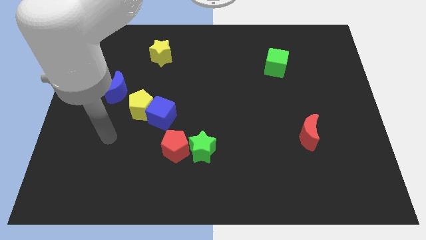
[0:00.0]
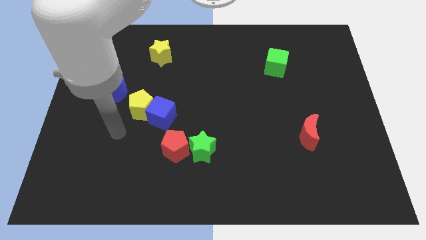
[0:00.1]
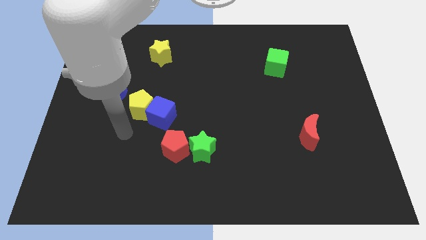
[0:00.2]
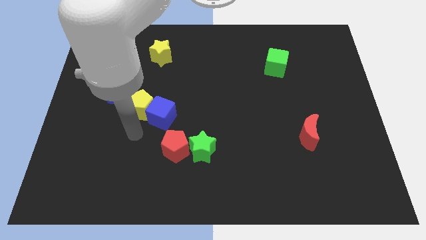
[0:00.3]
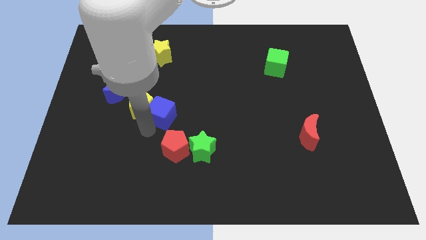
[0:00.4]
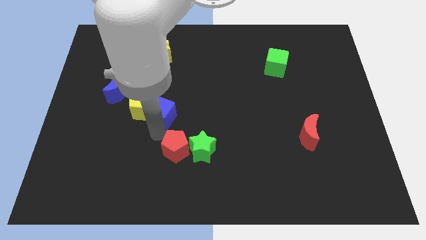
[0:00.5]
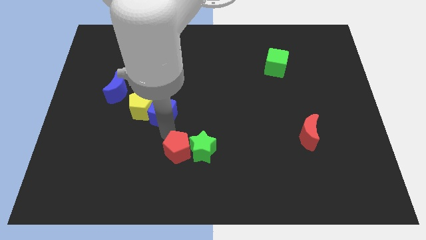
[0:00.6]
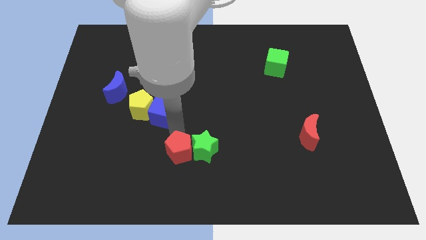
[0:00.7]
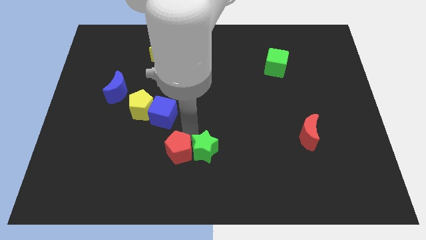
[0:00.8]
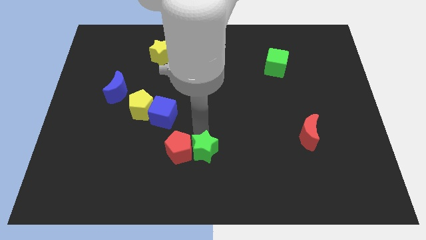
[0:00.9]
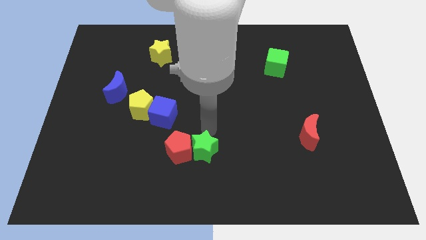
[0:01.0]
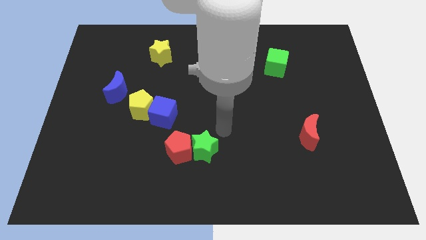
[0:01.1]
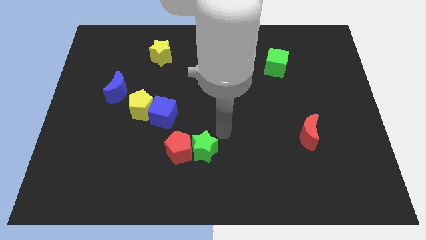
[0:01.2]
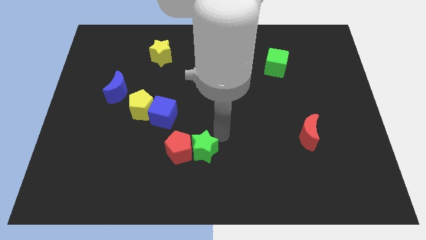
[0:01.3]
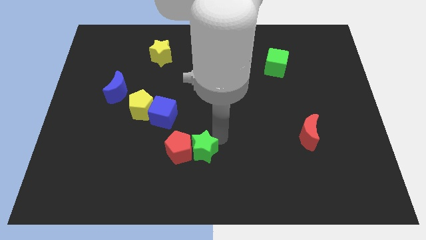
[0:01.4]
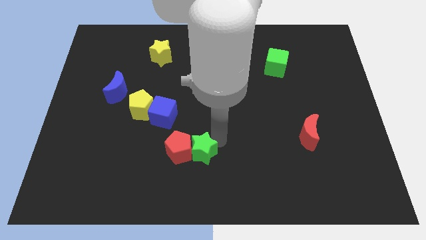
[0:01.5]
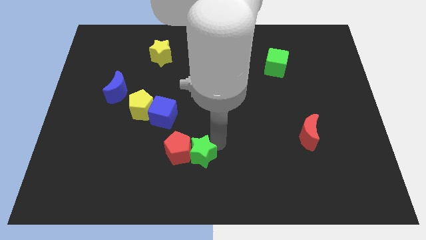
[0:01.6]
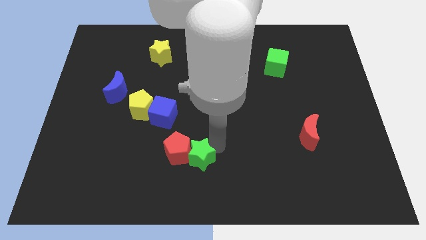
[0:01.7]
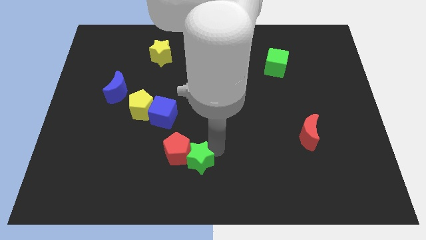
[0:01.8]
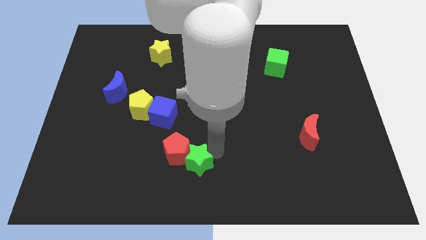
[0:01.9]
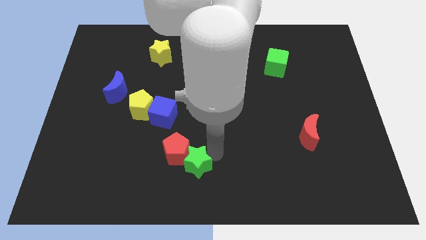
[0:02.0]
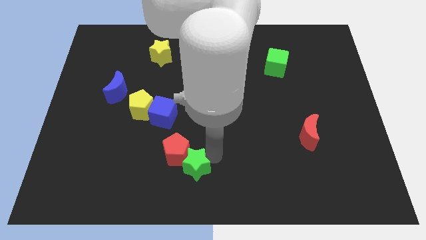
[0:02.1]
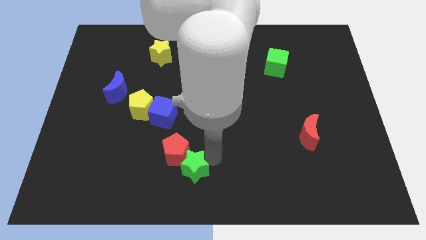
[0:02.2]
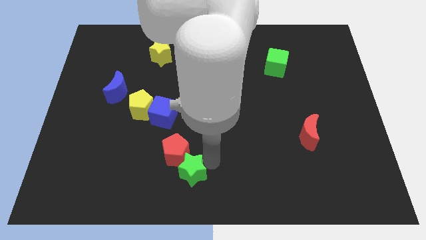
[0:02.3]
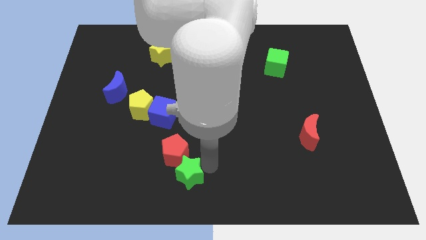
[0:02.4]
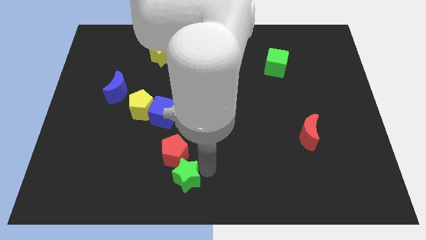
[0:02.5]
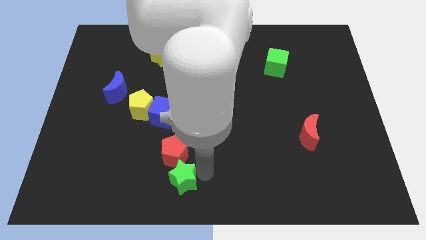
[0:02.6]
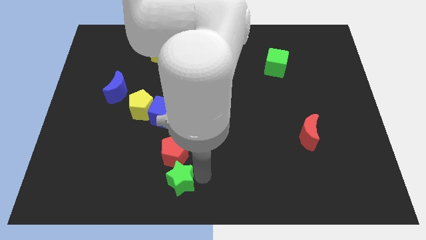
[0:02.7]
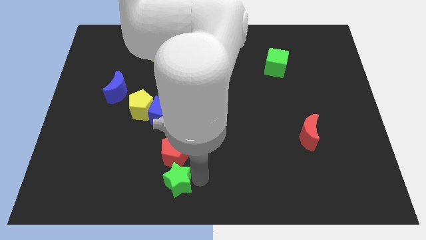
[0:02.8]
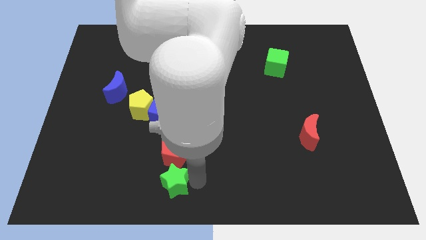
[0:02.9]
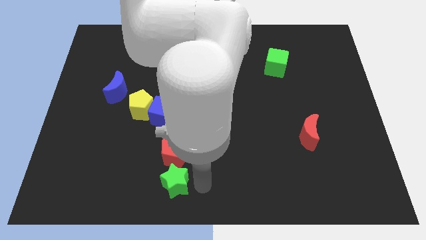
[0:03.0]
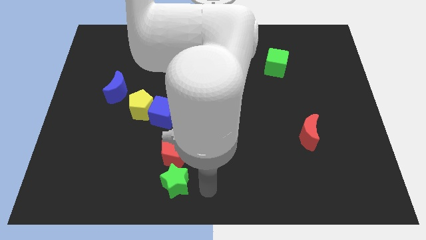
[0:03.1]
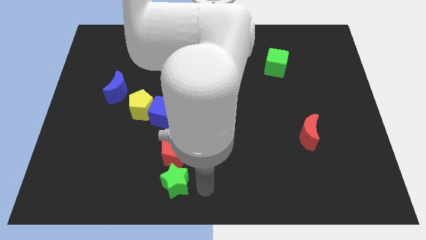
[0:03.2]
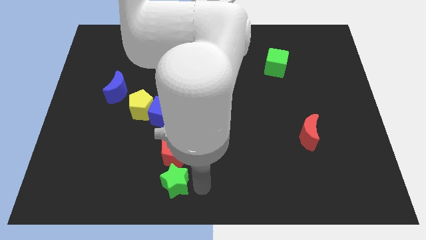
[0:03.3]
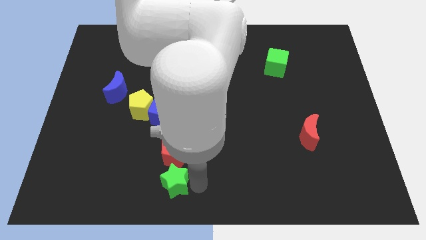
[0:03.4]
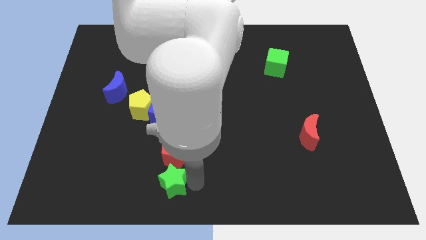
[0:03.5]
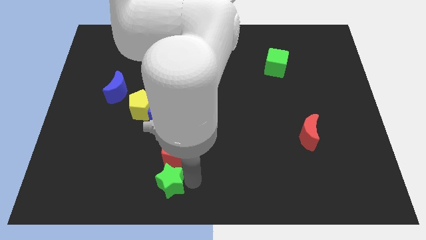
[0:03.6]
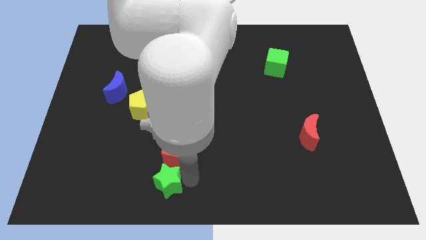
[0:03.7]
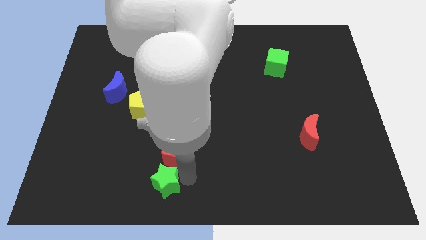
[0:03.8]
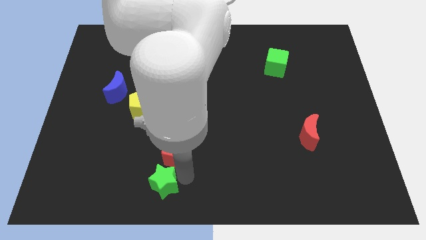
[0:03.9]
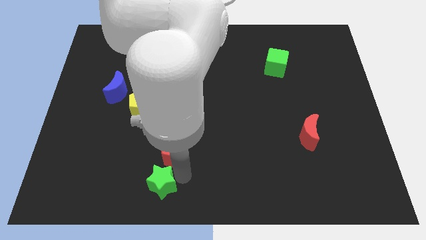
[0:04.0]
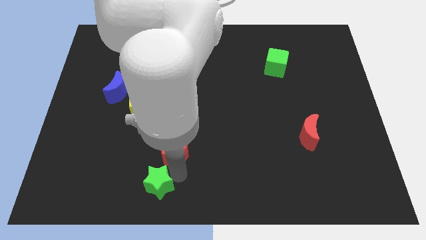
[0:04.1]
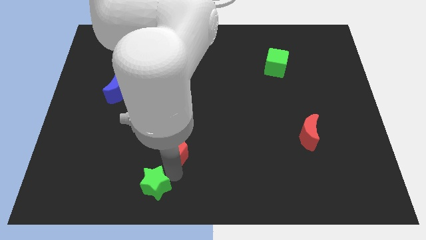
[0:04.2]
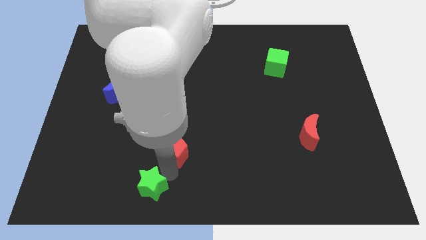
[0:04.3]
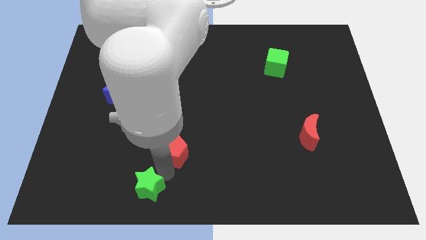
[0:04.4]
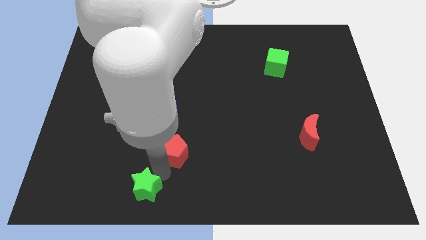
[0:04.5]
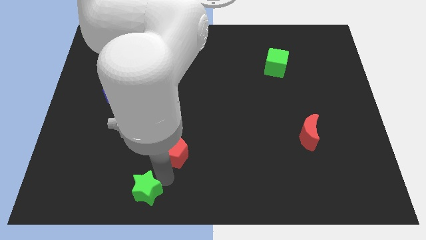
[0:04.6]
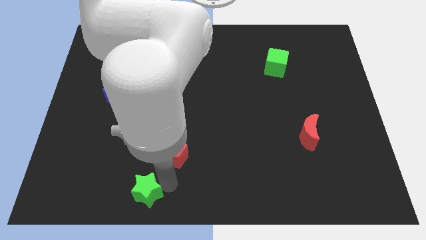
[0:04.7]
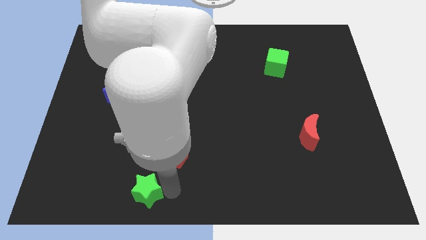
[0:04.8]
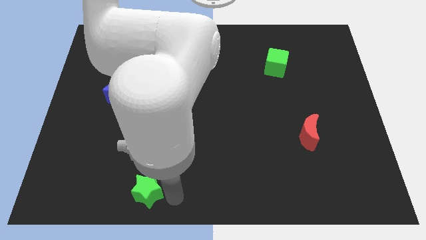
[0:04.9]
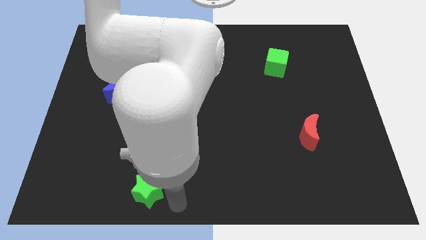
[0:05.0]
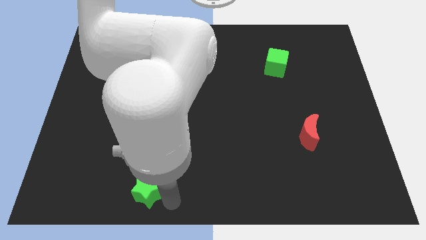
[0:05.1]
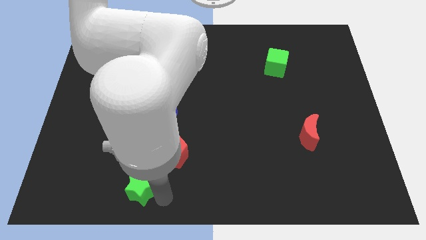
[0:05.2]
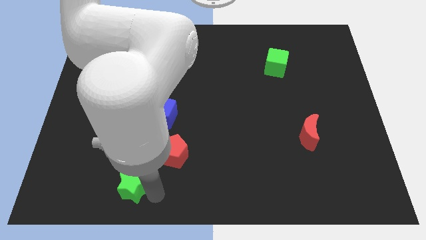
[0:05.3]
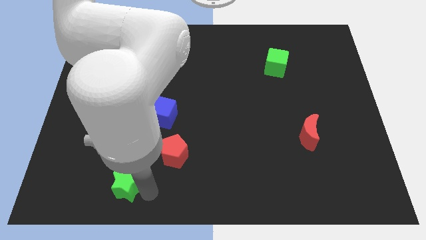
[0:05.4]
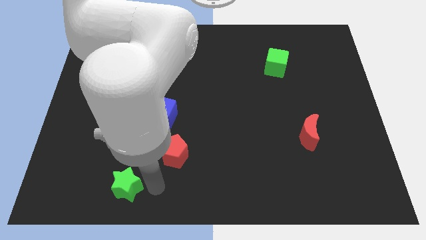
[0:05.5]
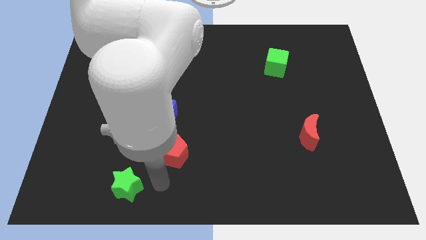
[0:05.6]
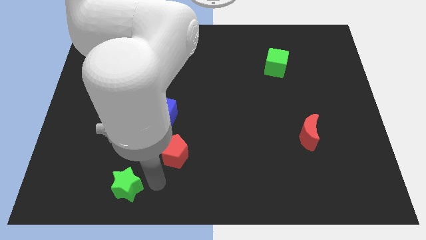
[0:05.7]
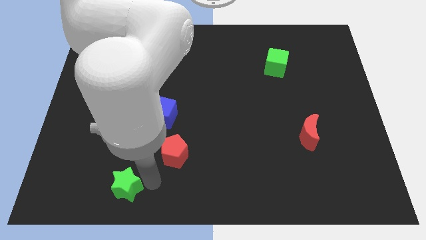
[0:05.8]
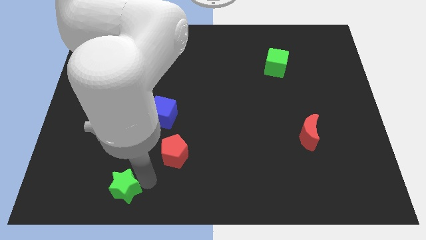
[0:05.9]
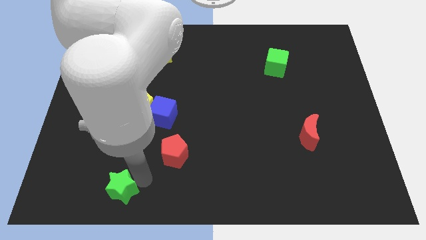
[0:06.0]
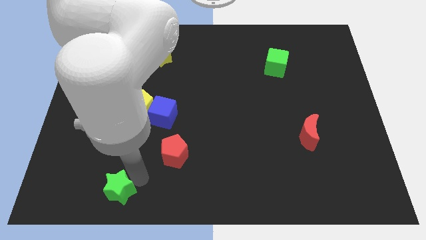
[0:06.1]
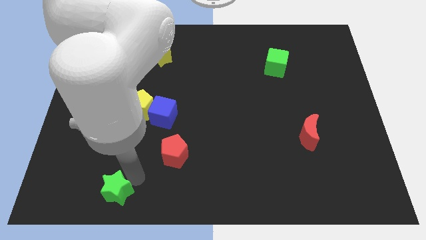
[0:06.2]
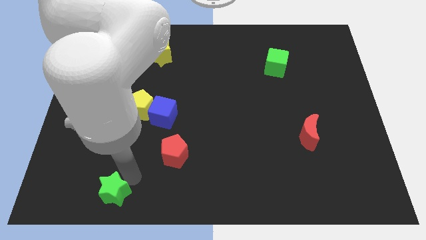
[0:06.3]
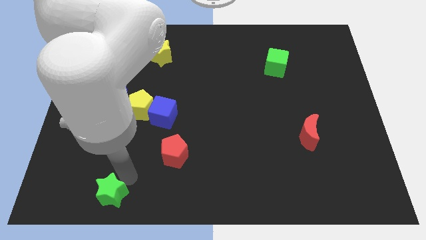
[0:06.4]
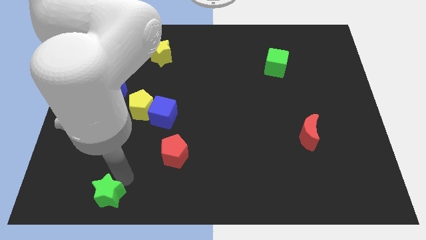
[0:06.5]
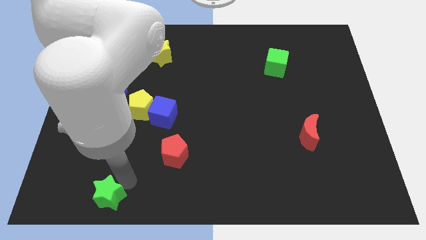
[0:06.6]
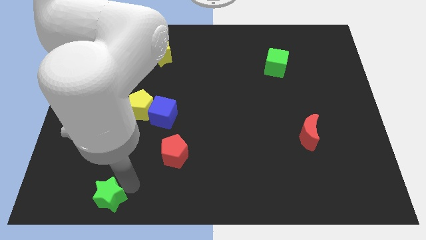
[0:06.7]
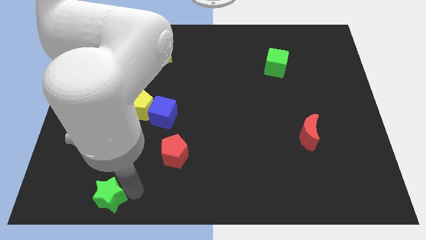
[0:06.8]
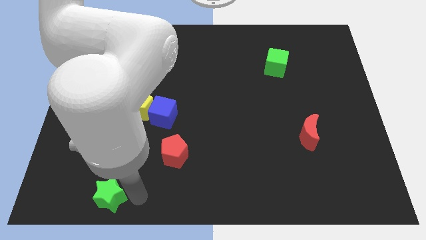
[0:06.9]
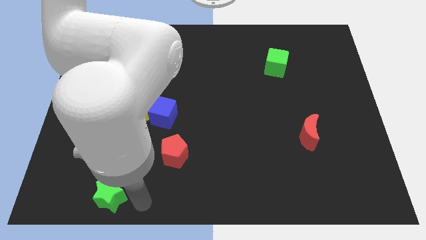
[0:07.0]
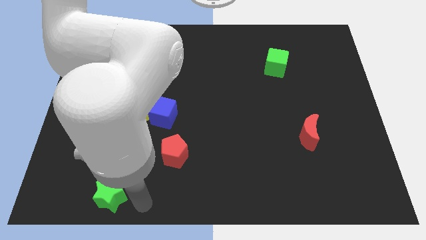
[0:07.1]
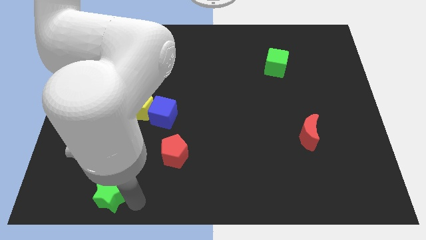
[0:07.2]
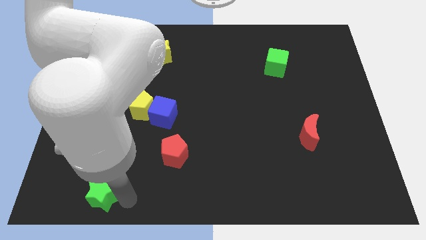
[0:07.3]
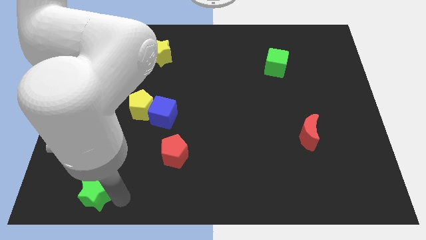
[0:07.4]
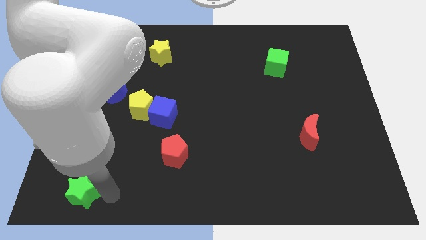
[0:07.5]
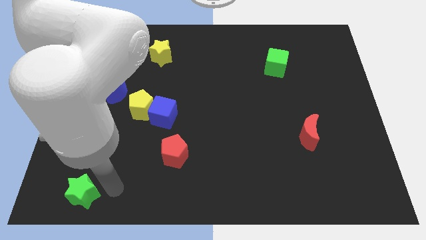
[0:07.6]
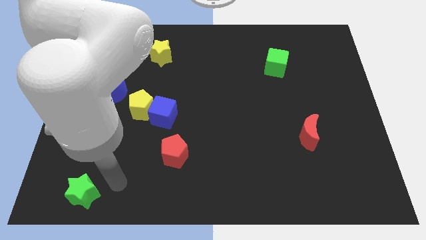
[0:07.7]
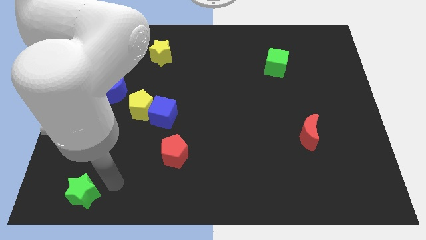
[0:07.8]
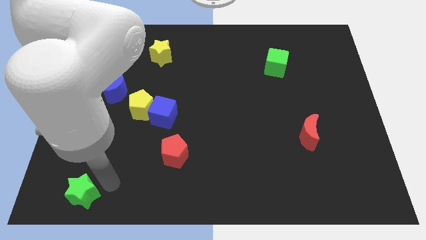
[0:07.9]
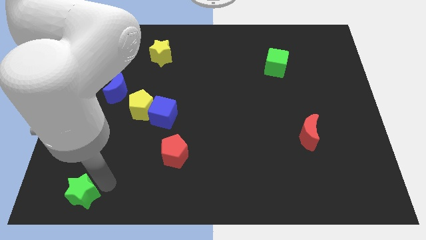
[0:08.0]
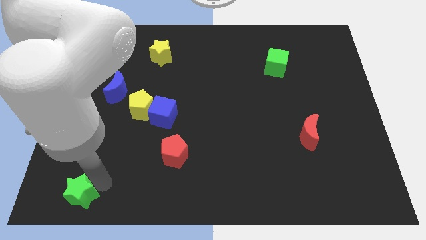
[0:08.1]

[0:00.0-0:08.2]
put the green star to the lower left corner
